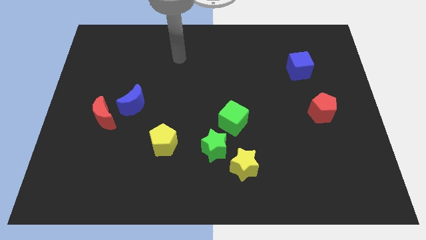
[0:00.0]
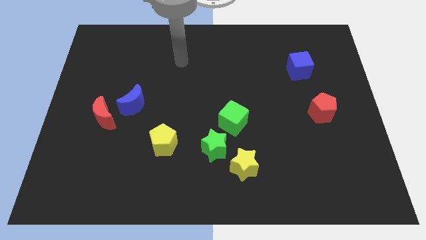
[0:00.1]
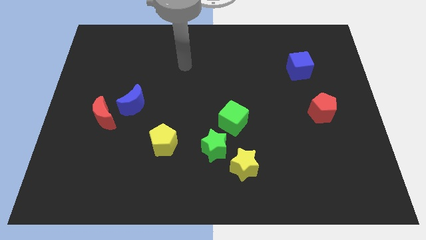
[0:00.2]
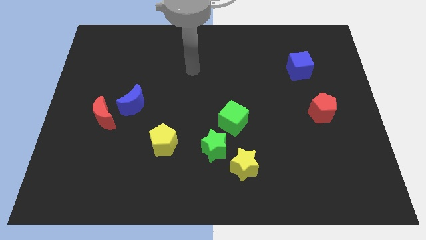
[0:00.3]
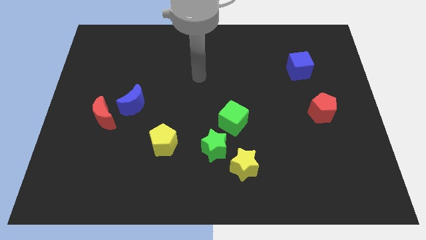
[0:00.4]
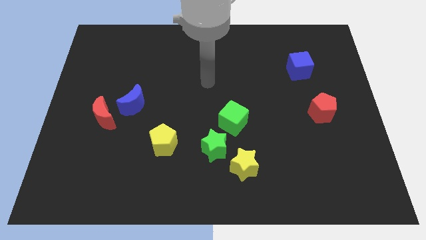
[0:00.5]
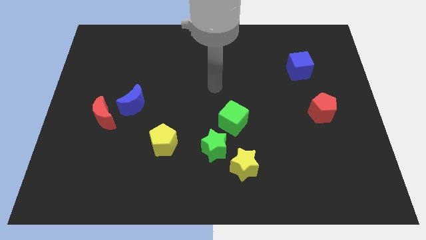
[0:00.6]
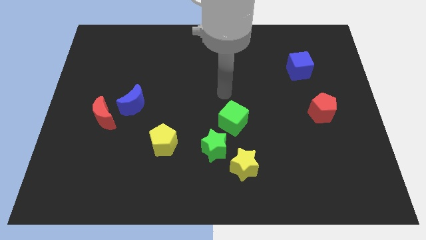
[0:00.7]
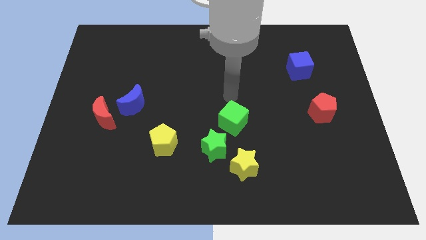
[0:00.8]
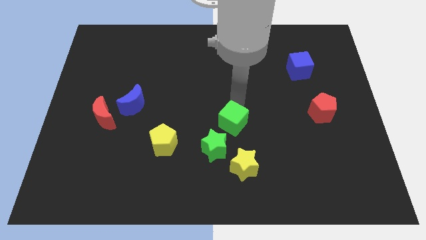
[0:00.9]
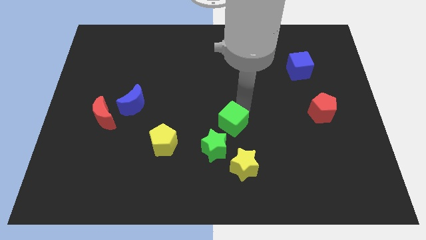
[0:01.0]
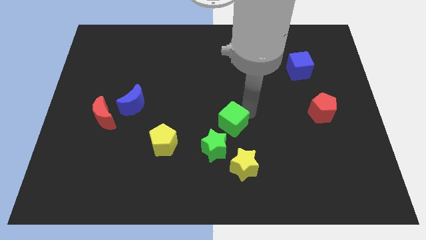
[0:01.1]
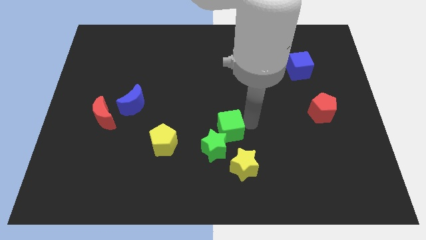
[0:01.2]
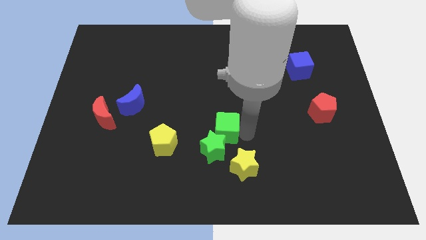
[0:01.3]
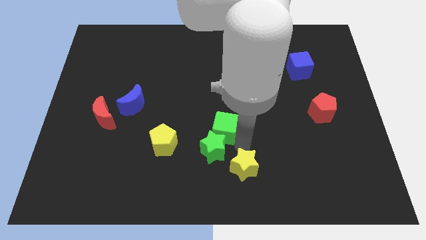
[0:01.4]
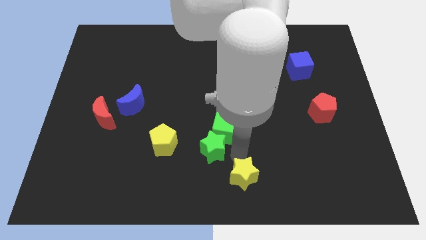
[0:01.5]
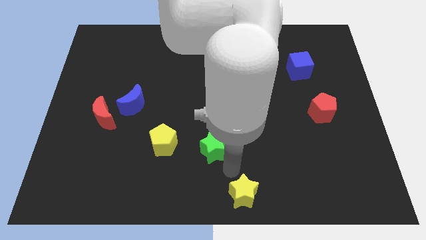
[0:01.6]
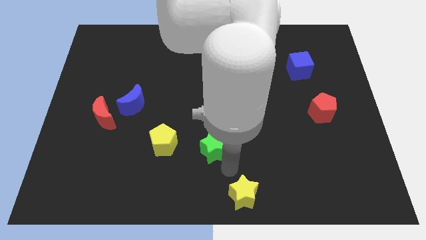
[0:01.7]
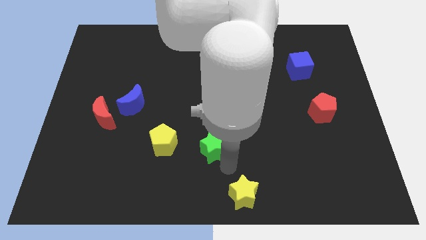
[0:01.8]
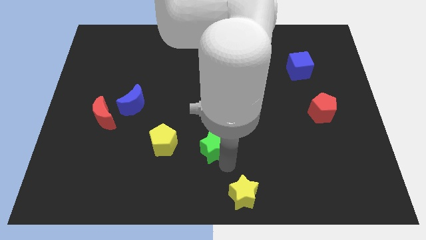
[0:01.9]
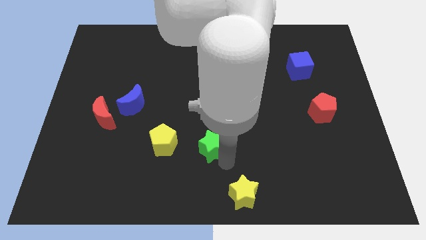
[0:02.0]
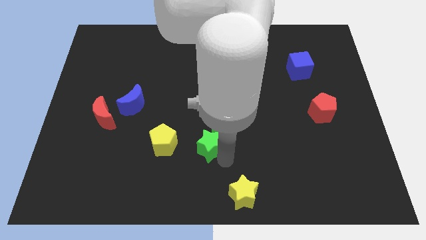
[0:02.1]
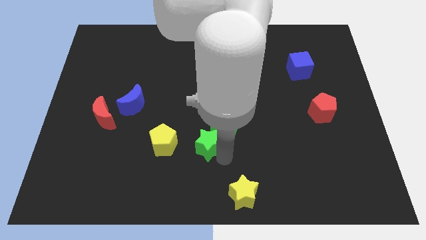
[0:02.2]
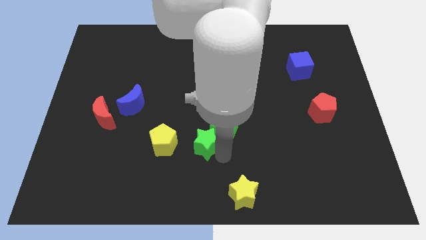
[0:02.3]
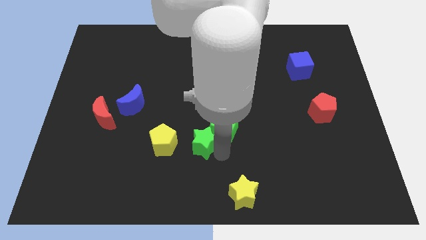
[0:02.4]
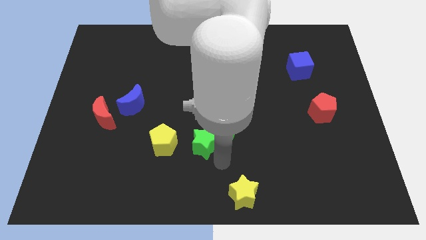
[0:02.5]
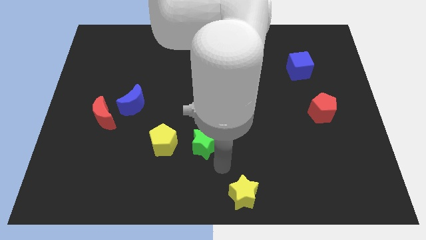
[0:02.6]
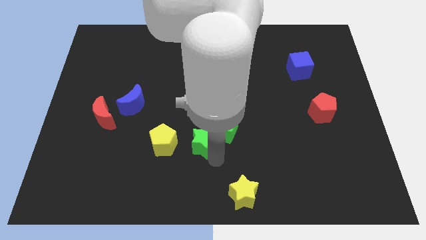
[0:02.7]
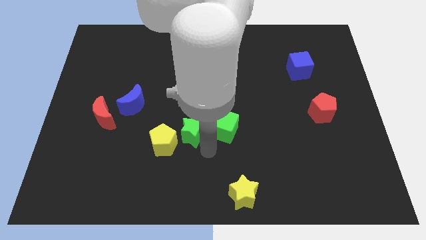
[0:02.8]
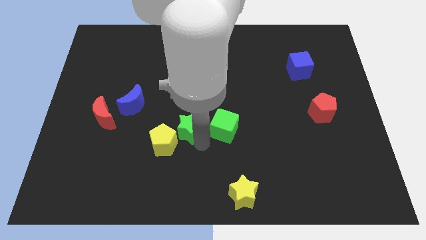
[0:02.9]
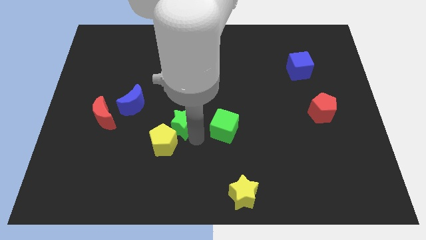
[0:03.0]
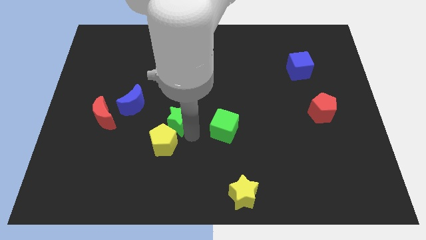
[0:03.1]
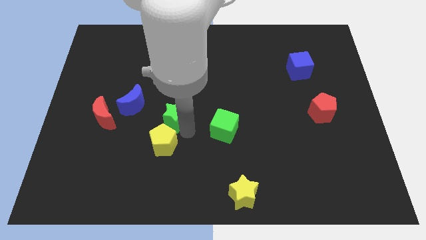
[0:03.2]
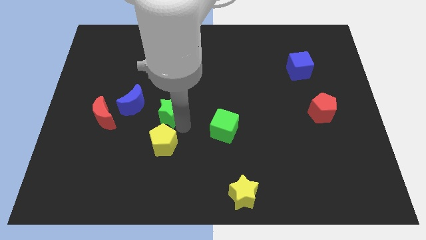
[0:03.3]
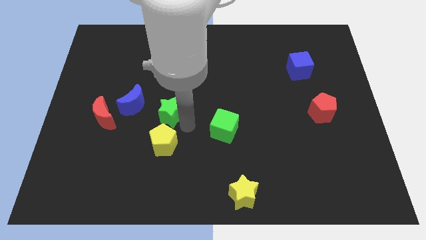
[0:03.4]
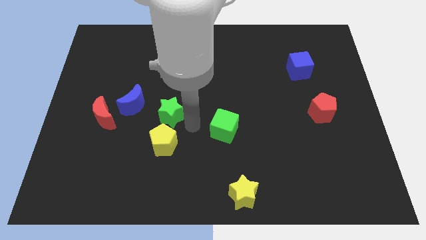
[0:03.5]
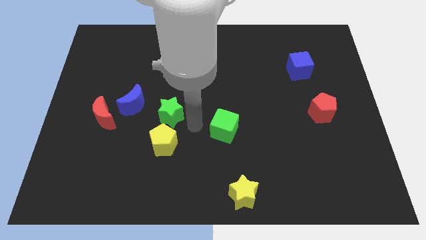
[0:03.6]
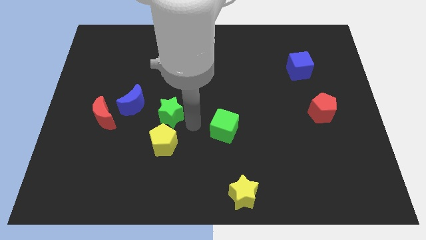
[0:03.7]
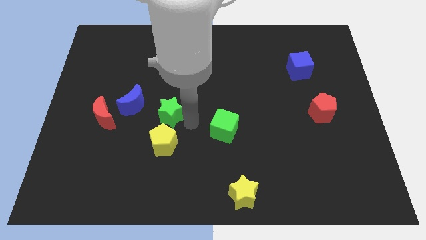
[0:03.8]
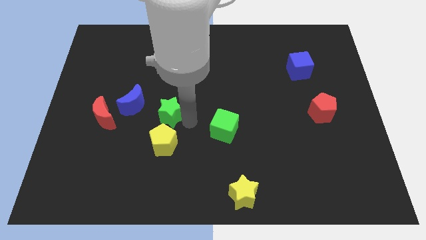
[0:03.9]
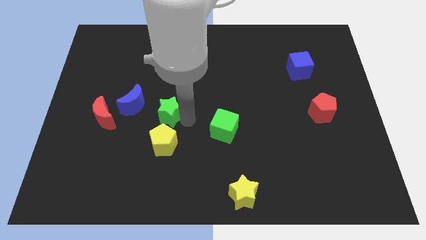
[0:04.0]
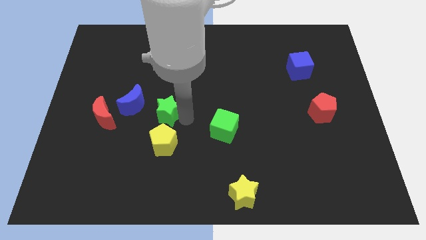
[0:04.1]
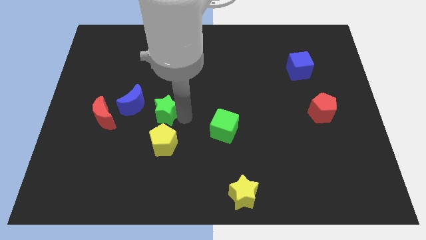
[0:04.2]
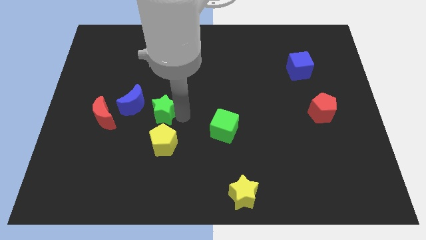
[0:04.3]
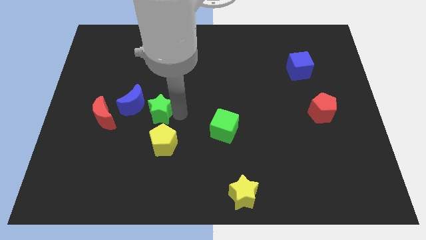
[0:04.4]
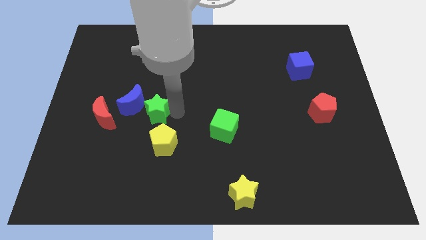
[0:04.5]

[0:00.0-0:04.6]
push the green star to the blue moon

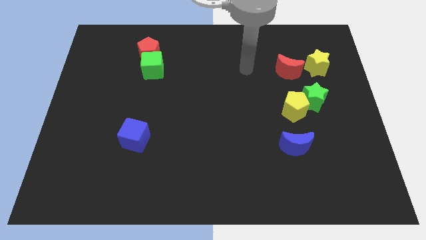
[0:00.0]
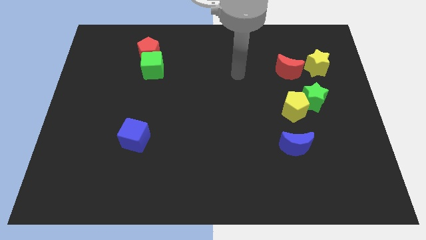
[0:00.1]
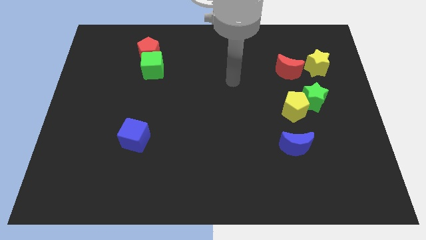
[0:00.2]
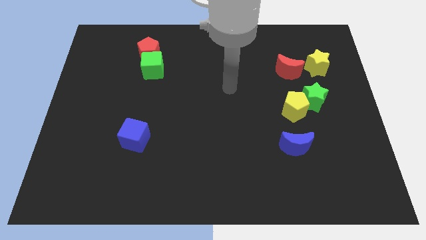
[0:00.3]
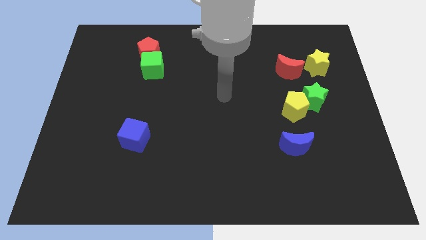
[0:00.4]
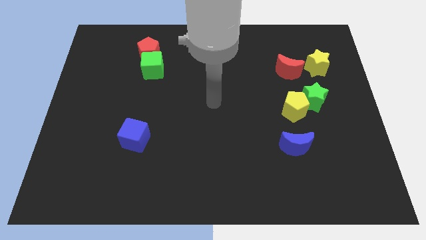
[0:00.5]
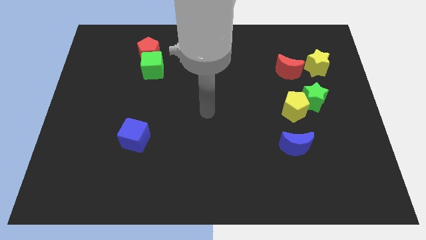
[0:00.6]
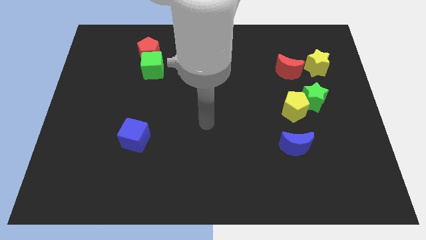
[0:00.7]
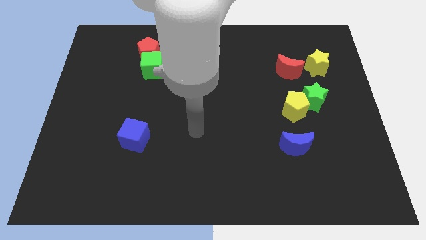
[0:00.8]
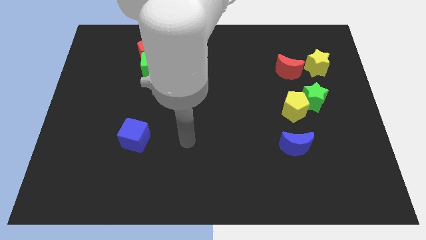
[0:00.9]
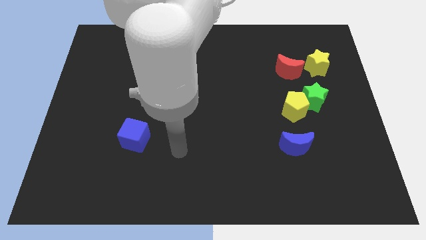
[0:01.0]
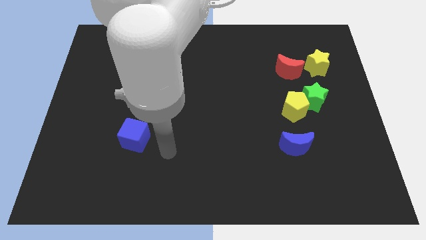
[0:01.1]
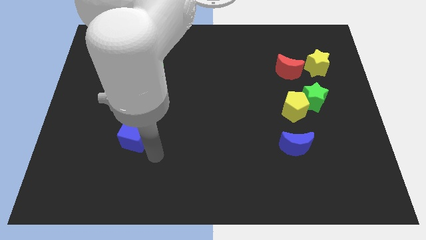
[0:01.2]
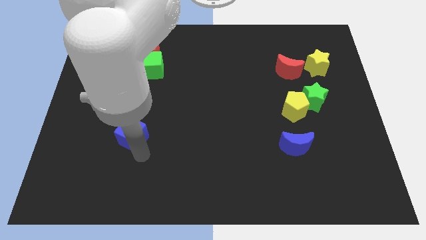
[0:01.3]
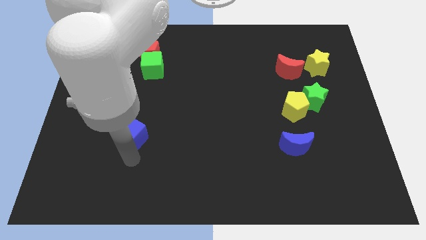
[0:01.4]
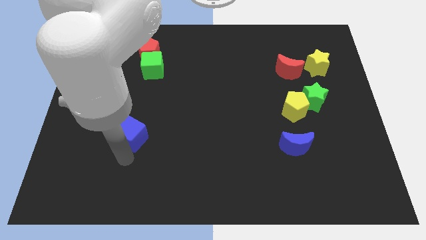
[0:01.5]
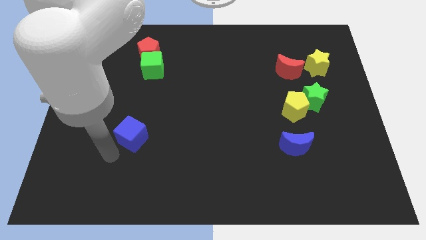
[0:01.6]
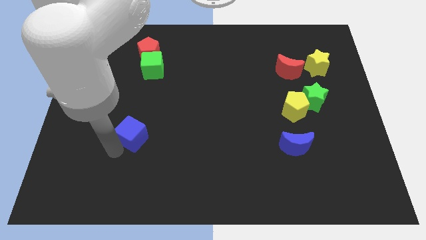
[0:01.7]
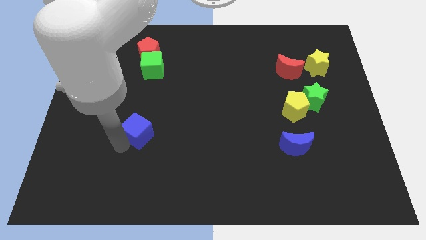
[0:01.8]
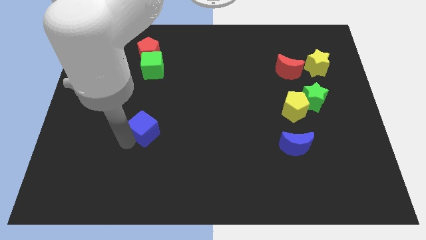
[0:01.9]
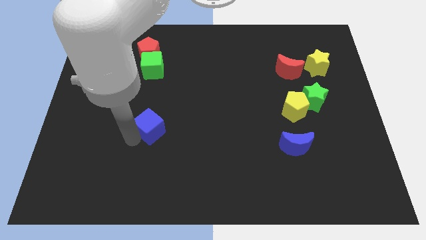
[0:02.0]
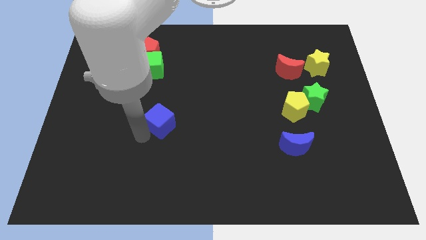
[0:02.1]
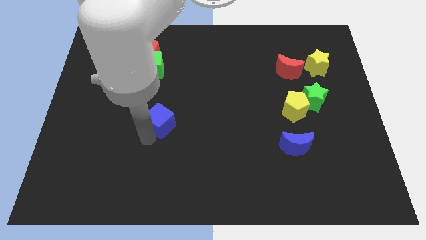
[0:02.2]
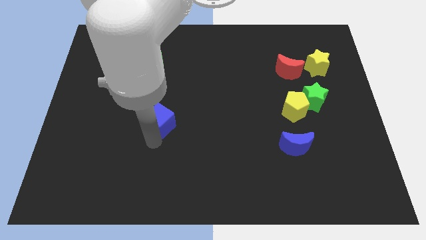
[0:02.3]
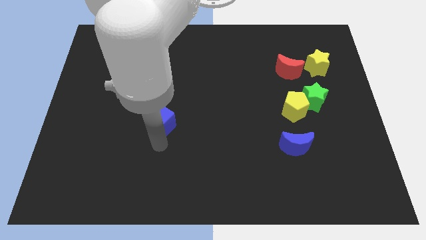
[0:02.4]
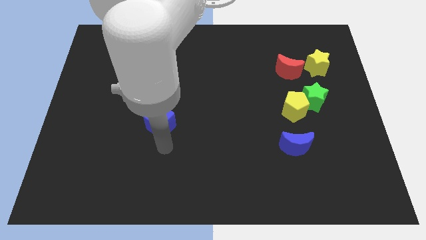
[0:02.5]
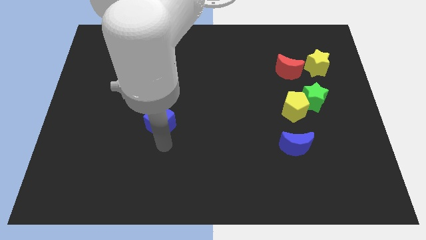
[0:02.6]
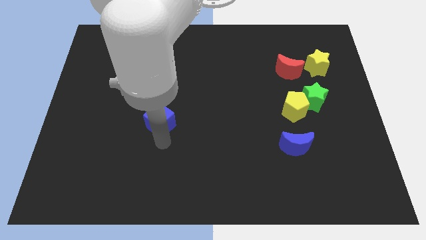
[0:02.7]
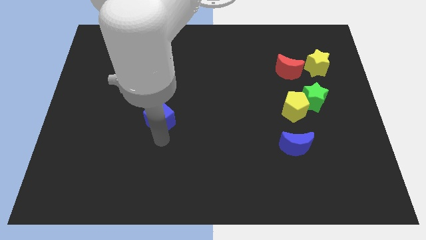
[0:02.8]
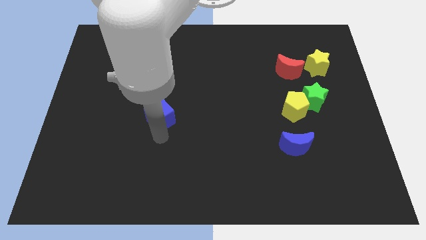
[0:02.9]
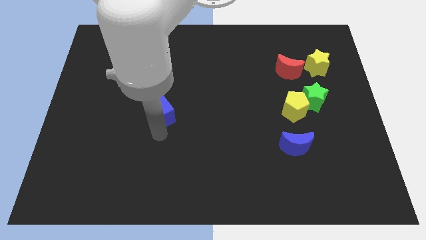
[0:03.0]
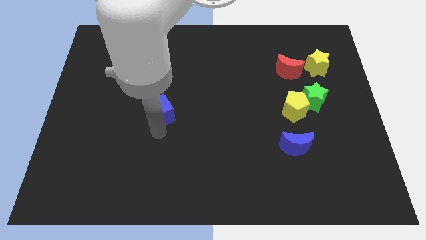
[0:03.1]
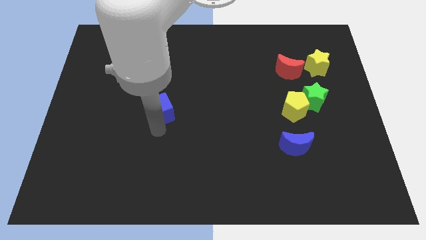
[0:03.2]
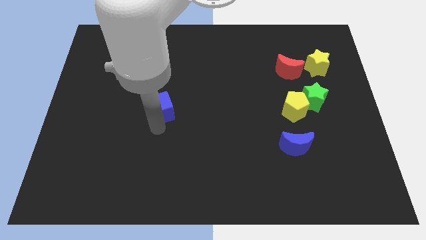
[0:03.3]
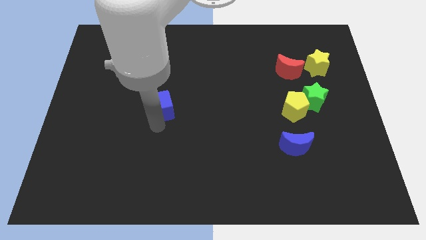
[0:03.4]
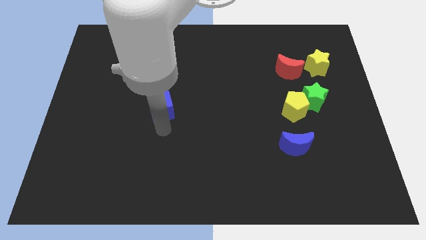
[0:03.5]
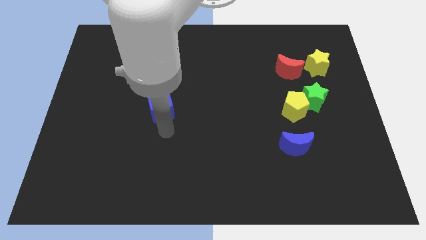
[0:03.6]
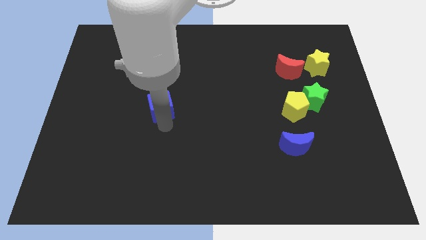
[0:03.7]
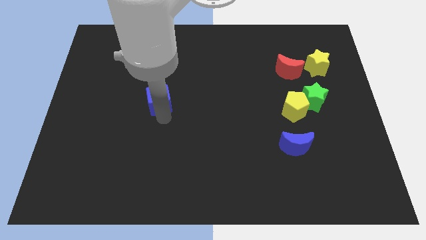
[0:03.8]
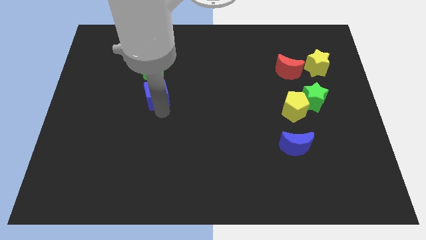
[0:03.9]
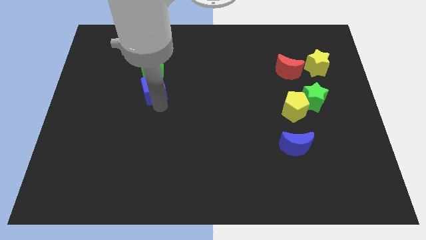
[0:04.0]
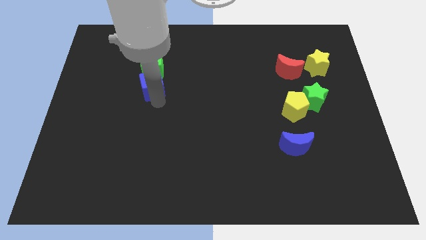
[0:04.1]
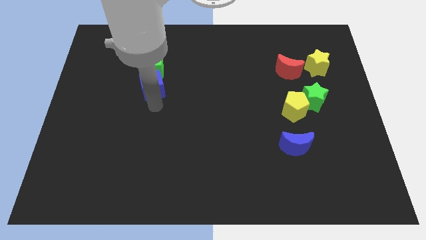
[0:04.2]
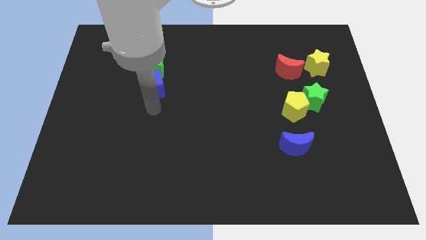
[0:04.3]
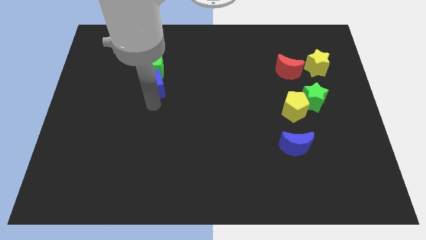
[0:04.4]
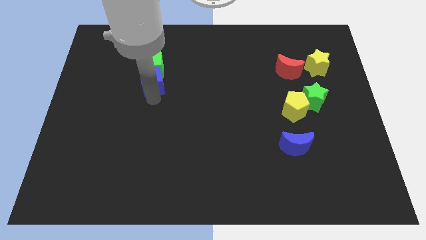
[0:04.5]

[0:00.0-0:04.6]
push the blue cube towards the green cube
